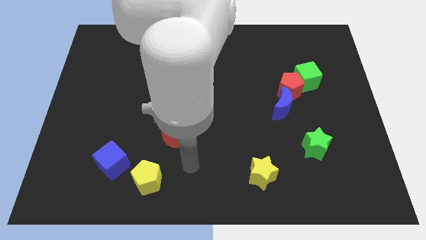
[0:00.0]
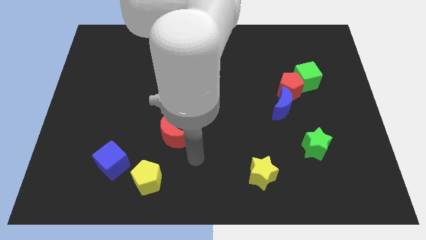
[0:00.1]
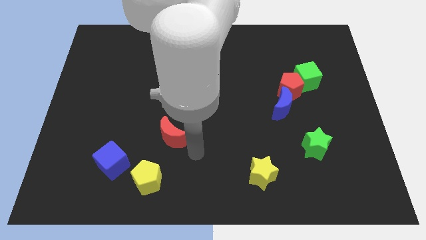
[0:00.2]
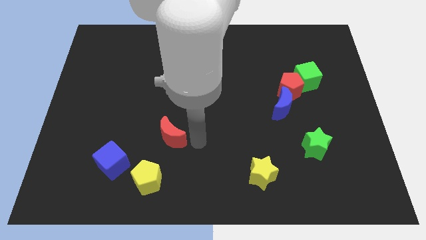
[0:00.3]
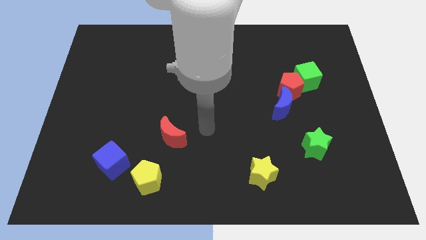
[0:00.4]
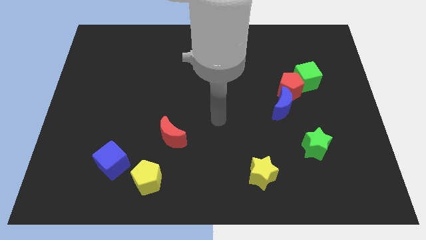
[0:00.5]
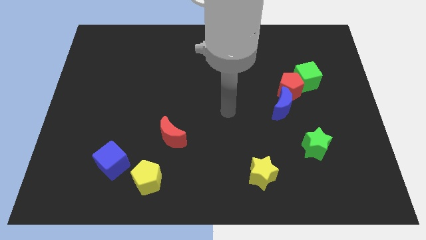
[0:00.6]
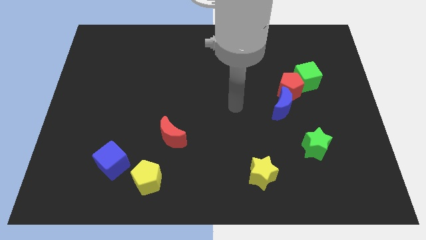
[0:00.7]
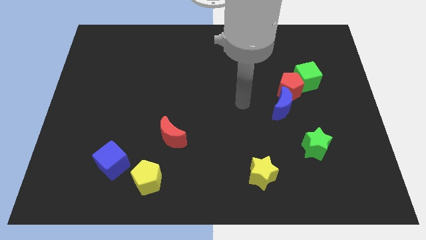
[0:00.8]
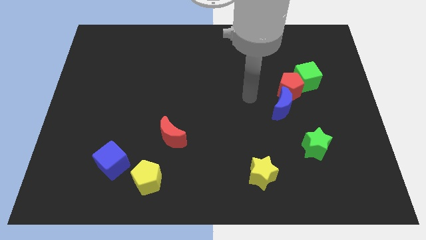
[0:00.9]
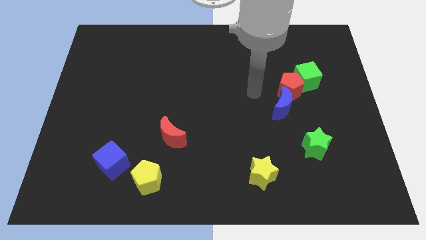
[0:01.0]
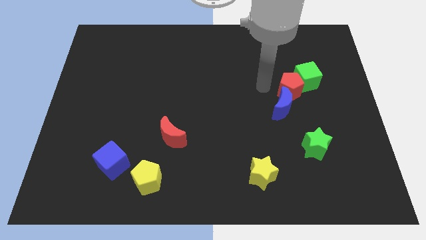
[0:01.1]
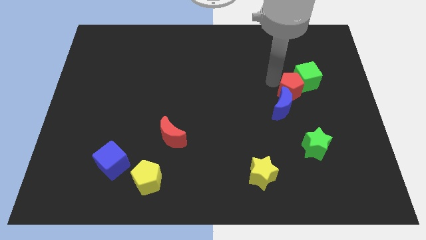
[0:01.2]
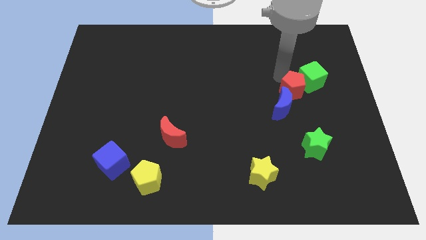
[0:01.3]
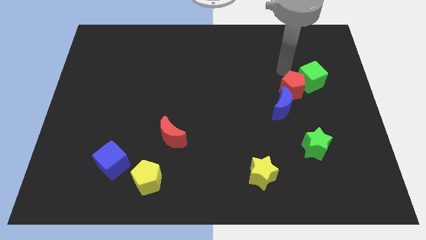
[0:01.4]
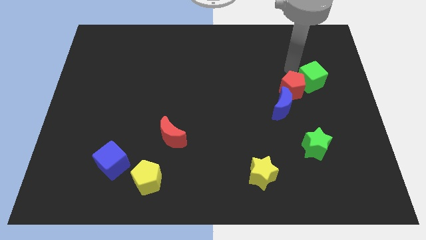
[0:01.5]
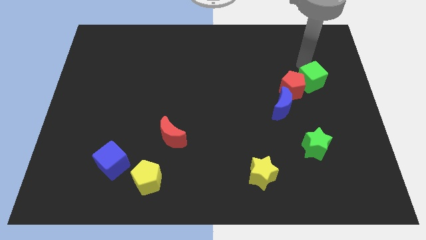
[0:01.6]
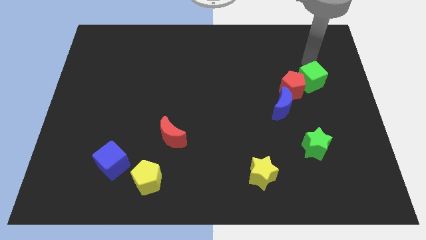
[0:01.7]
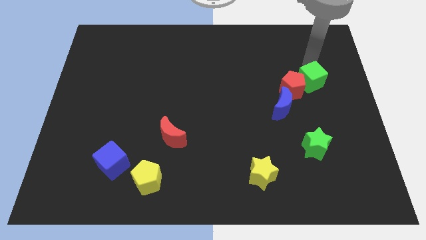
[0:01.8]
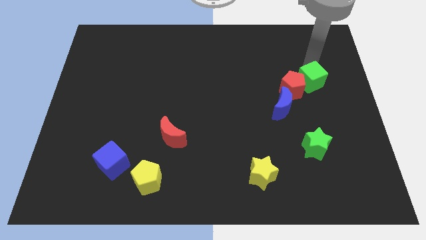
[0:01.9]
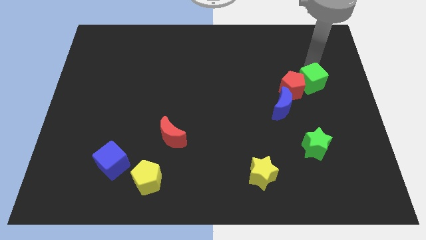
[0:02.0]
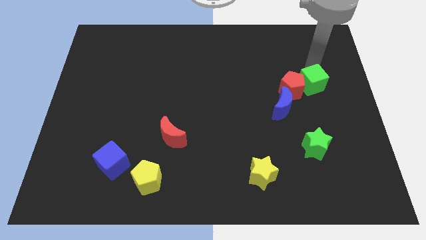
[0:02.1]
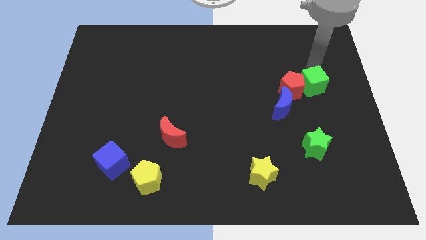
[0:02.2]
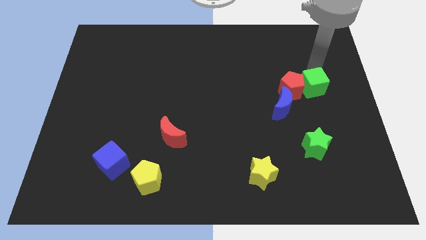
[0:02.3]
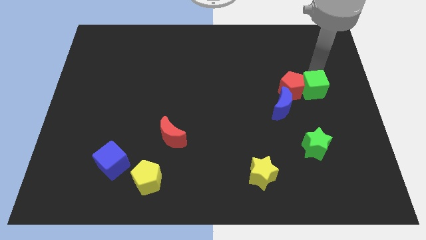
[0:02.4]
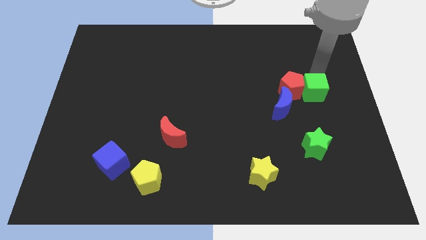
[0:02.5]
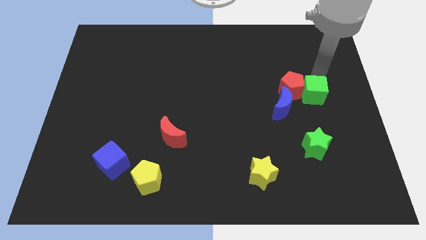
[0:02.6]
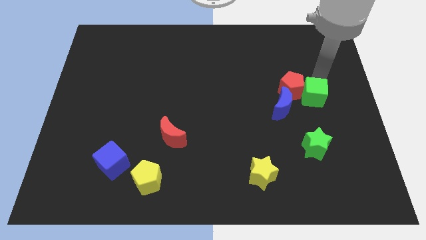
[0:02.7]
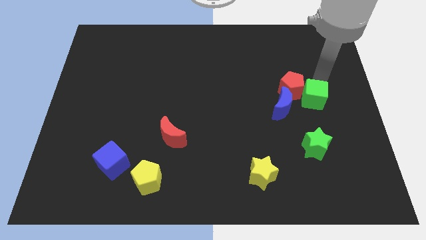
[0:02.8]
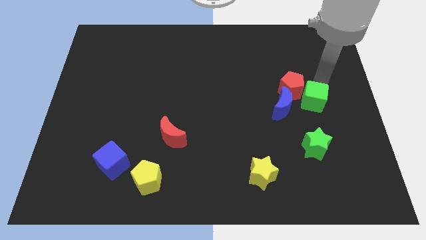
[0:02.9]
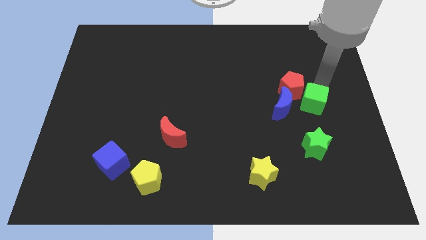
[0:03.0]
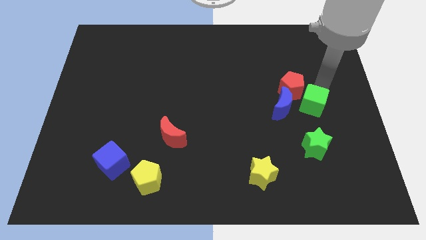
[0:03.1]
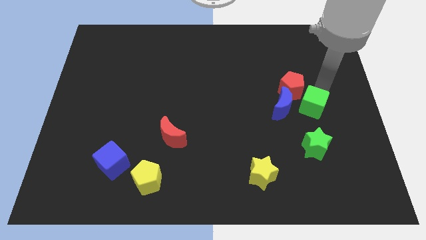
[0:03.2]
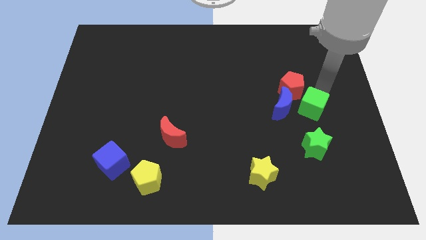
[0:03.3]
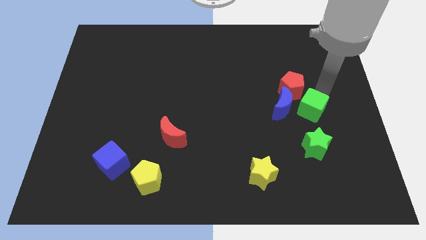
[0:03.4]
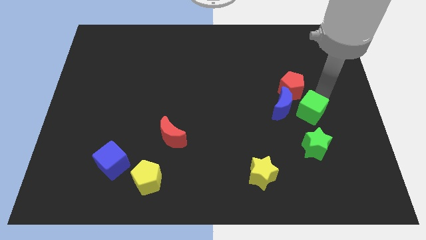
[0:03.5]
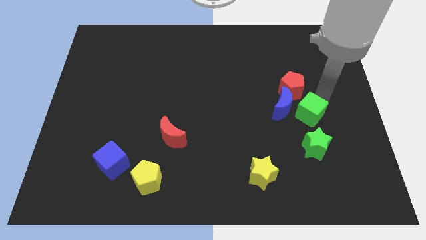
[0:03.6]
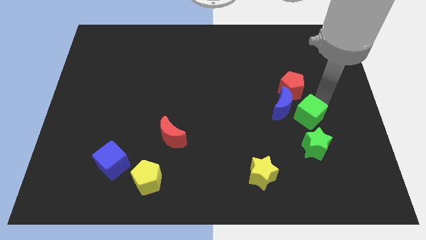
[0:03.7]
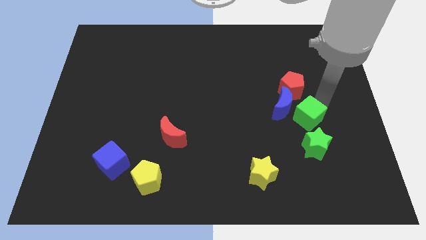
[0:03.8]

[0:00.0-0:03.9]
slide the green cube slightly downwards and then left

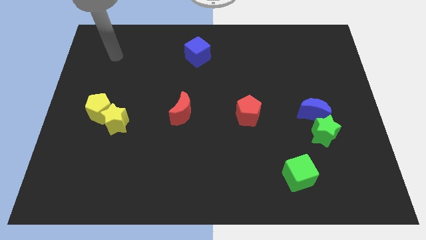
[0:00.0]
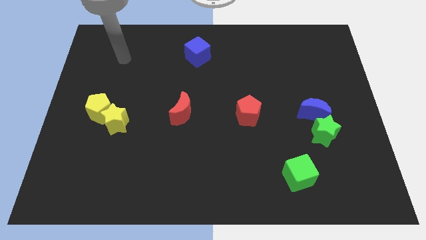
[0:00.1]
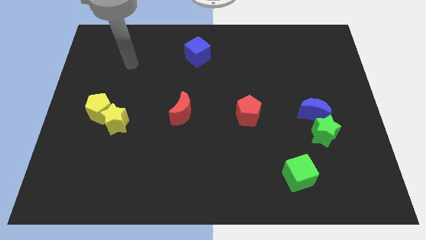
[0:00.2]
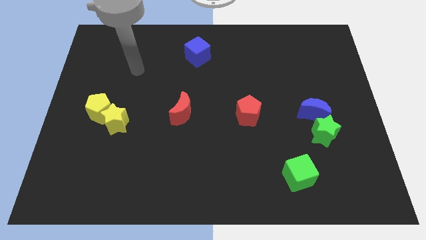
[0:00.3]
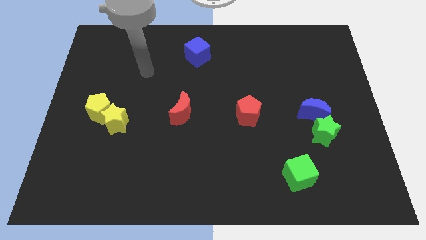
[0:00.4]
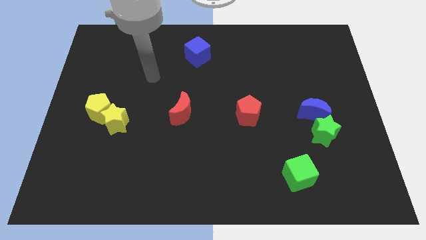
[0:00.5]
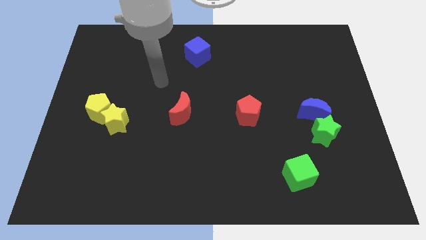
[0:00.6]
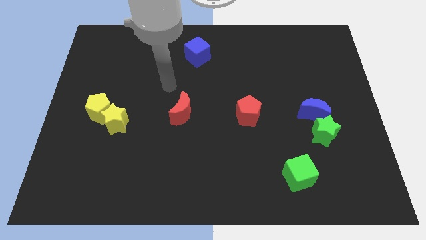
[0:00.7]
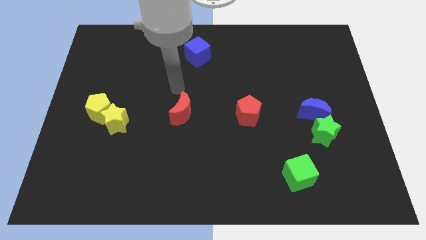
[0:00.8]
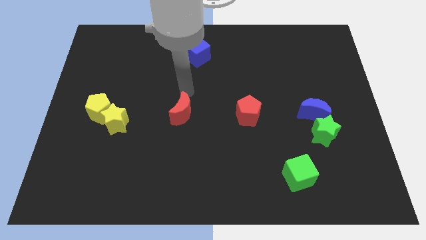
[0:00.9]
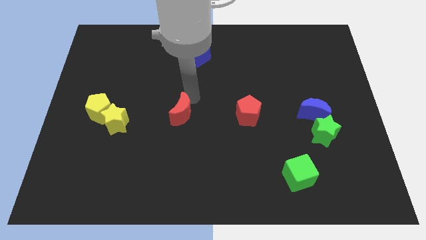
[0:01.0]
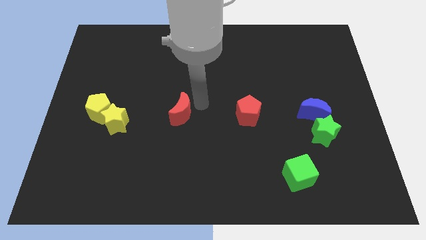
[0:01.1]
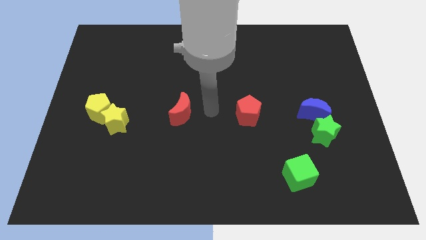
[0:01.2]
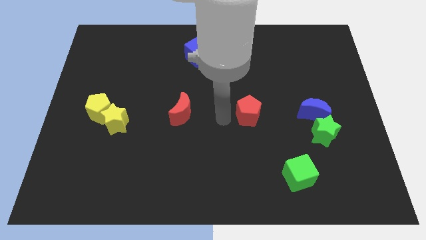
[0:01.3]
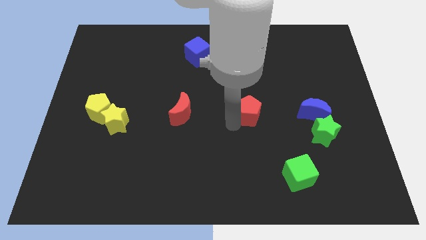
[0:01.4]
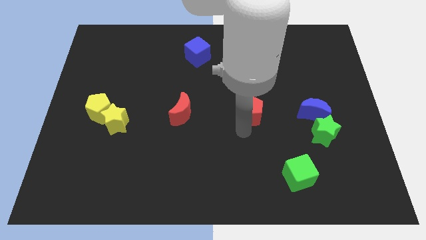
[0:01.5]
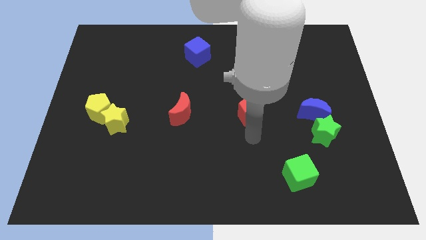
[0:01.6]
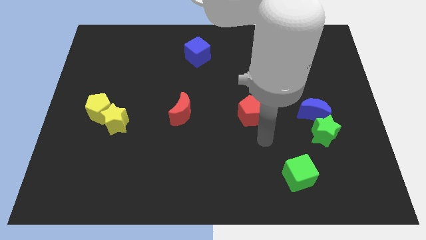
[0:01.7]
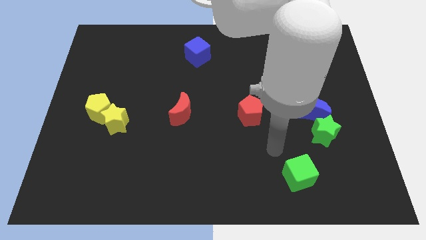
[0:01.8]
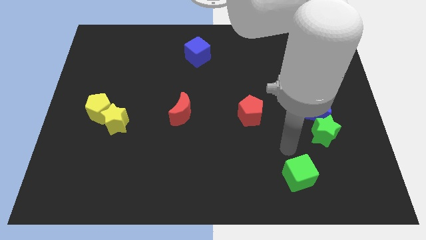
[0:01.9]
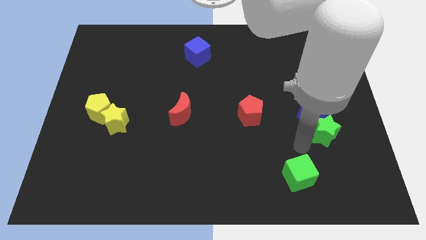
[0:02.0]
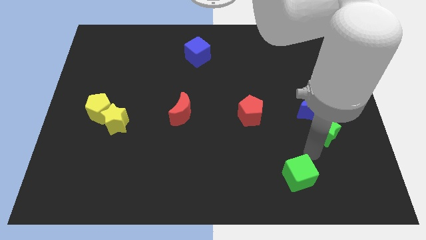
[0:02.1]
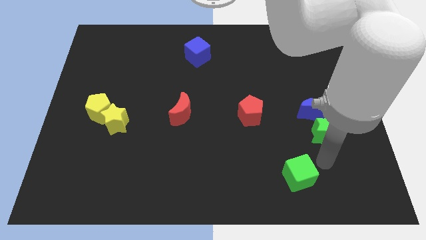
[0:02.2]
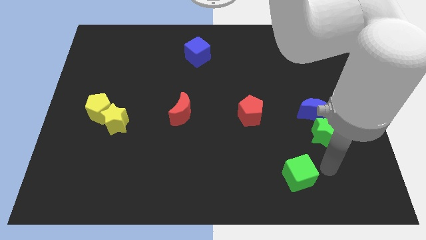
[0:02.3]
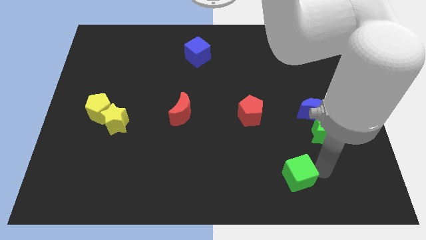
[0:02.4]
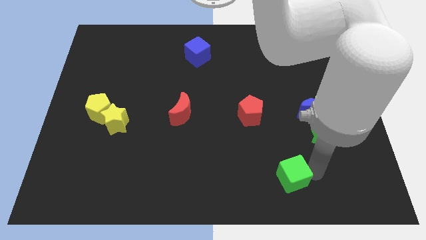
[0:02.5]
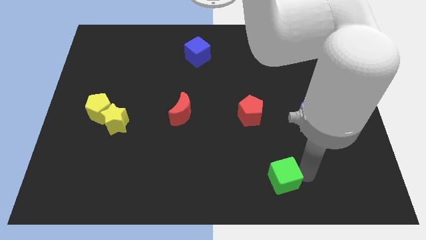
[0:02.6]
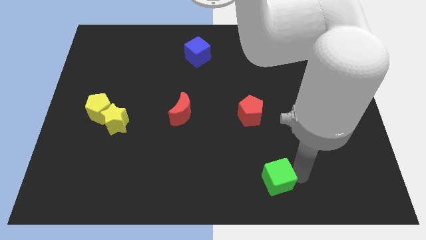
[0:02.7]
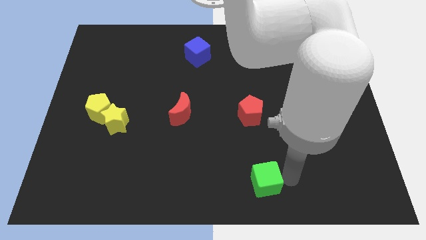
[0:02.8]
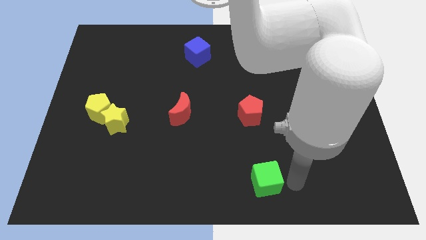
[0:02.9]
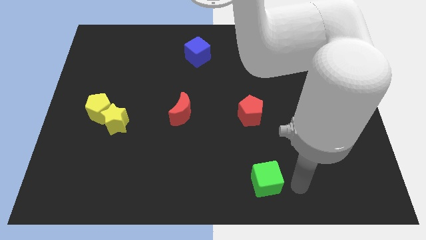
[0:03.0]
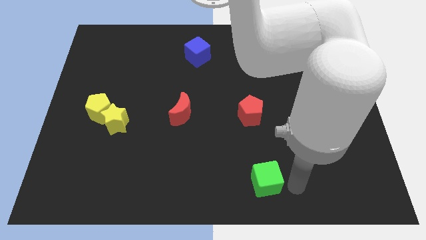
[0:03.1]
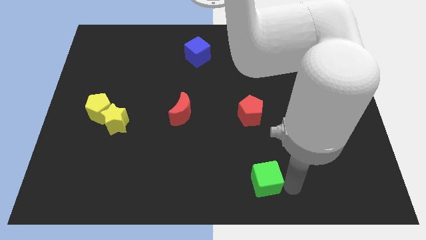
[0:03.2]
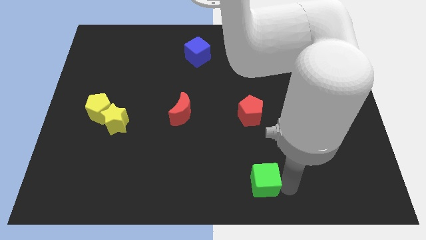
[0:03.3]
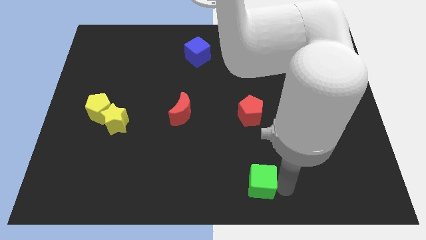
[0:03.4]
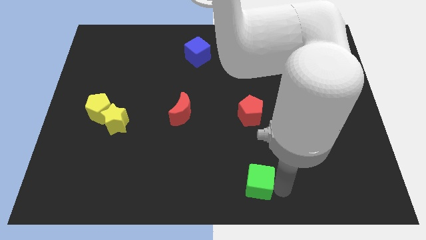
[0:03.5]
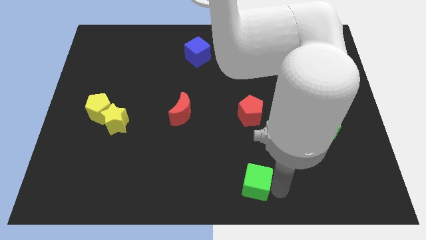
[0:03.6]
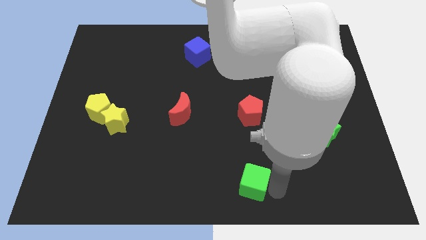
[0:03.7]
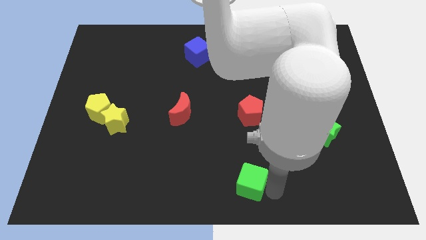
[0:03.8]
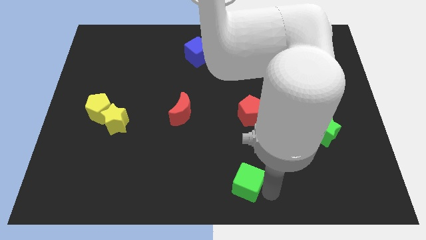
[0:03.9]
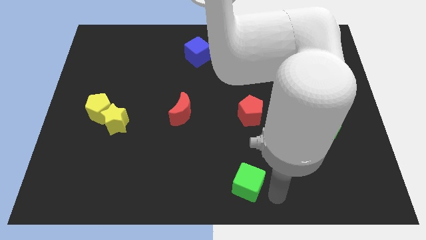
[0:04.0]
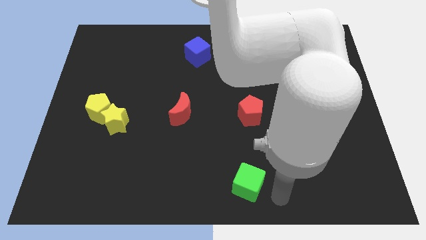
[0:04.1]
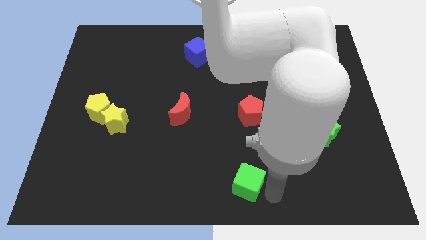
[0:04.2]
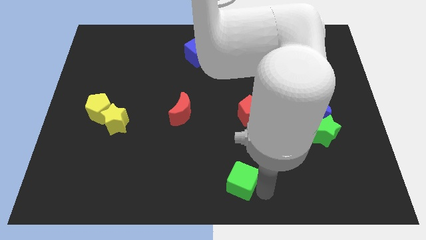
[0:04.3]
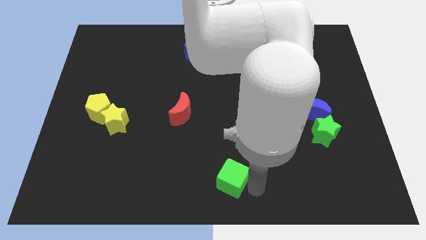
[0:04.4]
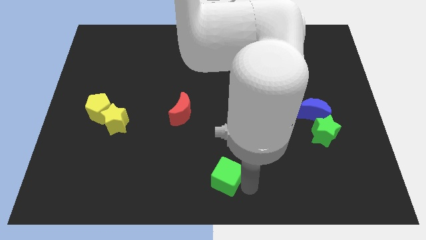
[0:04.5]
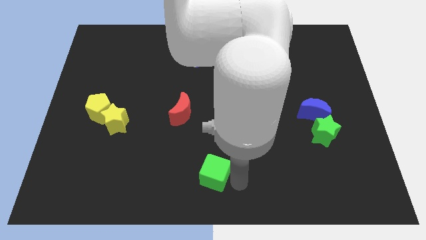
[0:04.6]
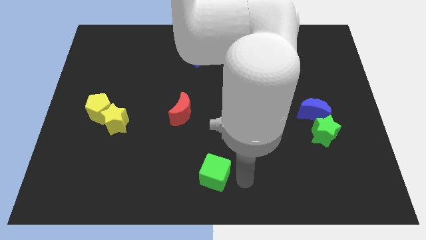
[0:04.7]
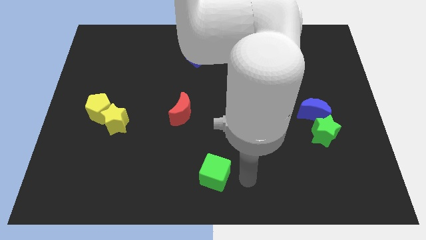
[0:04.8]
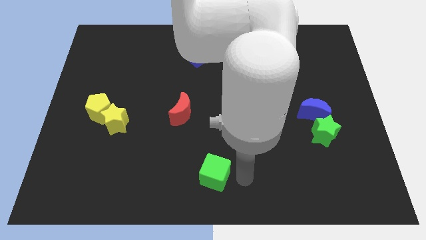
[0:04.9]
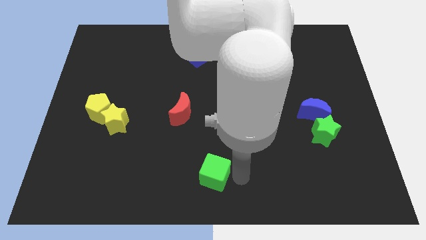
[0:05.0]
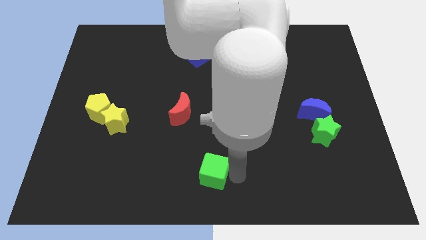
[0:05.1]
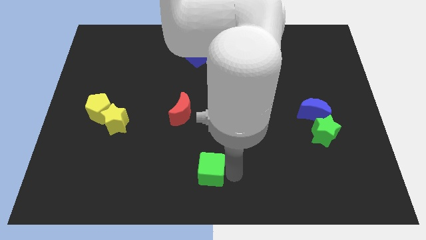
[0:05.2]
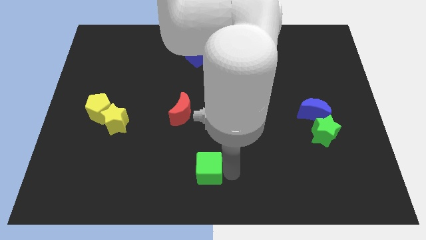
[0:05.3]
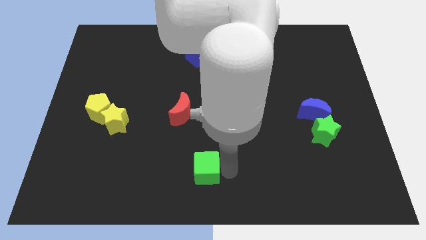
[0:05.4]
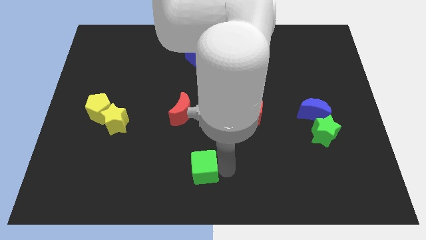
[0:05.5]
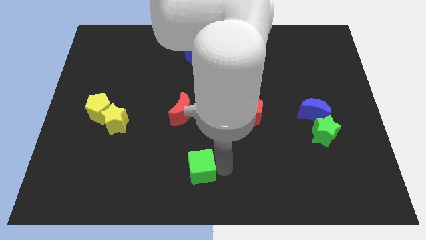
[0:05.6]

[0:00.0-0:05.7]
move the green cube to the left
